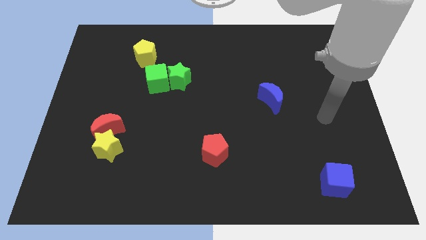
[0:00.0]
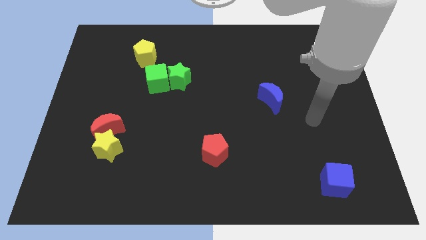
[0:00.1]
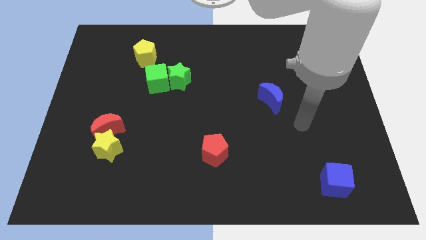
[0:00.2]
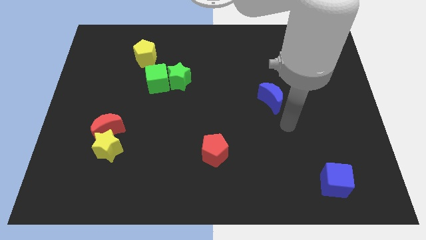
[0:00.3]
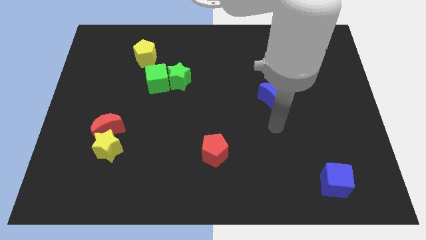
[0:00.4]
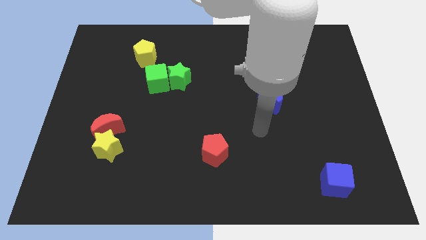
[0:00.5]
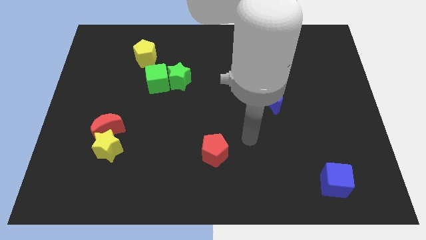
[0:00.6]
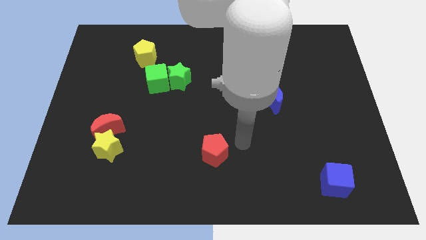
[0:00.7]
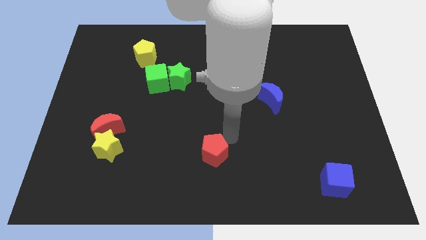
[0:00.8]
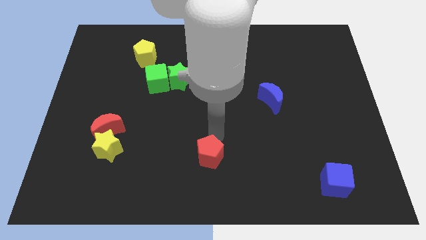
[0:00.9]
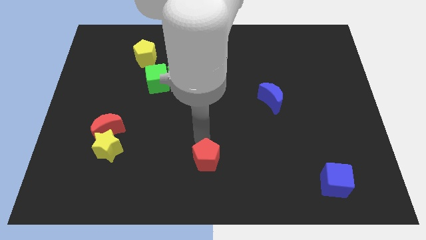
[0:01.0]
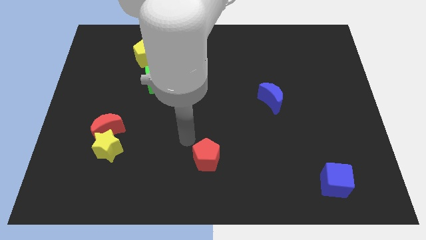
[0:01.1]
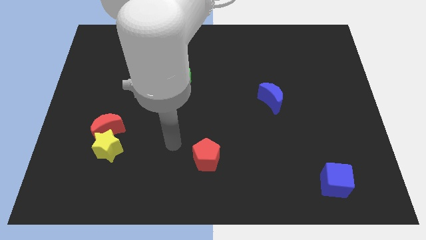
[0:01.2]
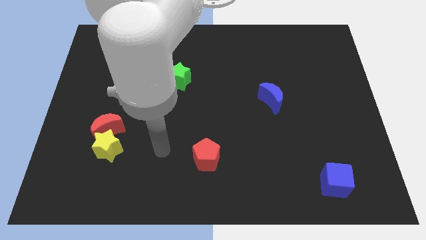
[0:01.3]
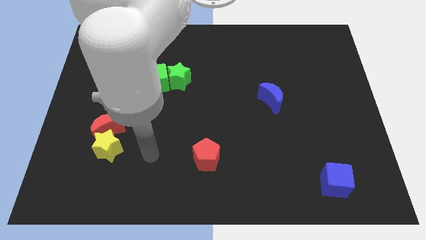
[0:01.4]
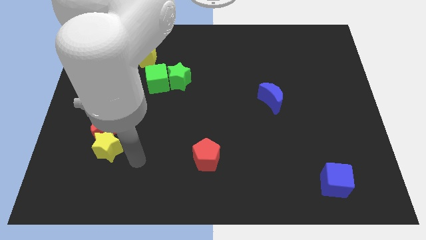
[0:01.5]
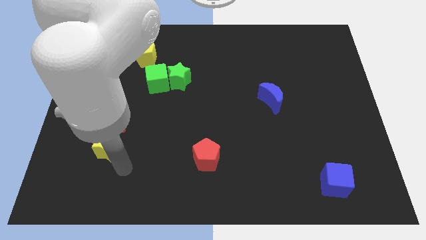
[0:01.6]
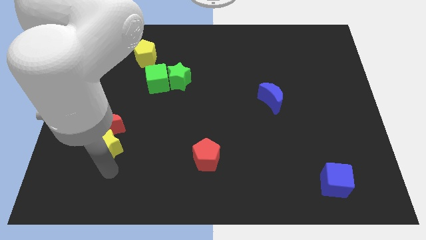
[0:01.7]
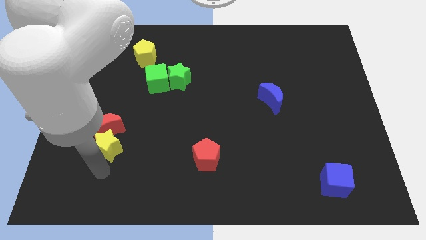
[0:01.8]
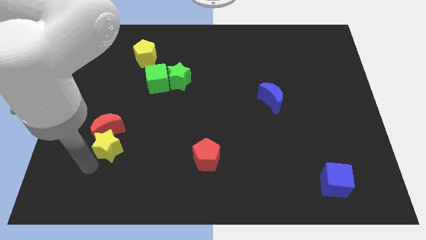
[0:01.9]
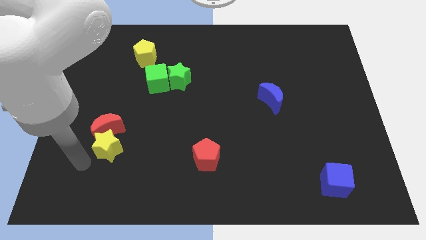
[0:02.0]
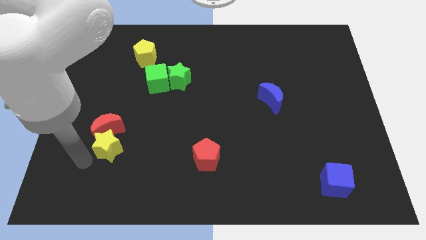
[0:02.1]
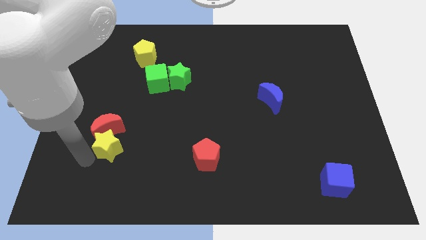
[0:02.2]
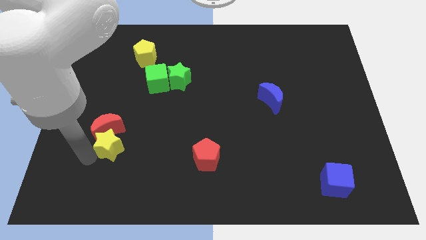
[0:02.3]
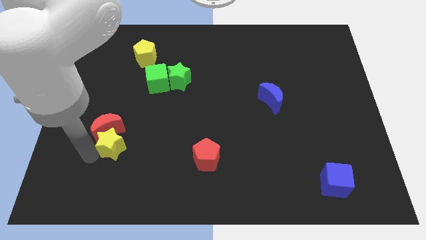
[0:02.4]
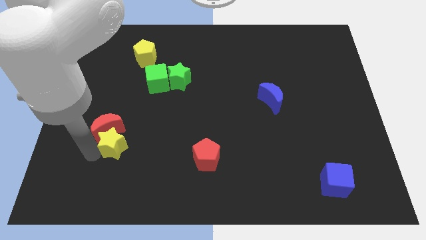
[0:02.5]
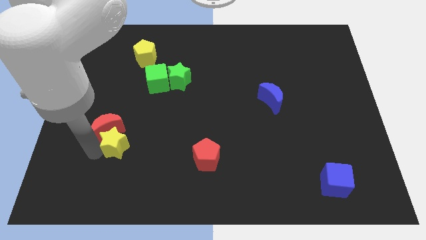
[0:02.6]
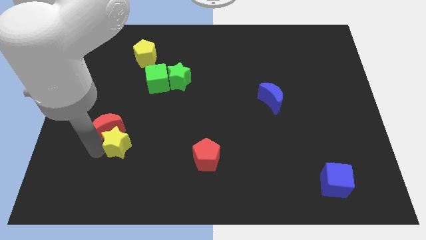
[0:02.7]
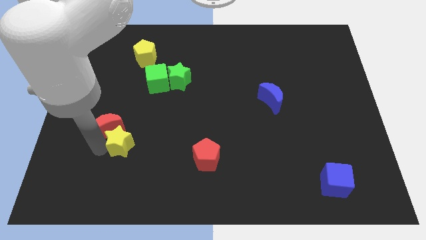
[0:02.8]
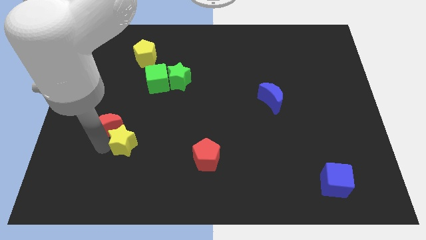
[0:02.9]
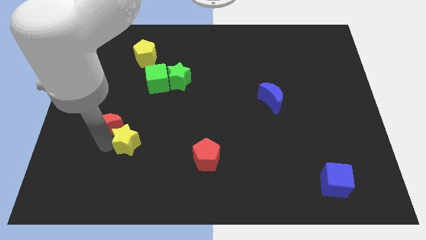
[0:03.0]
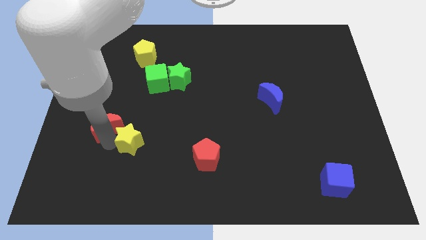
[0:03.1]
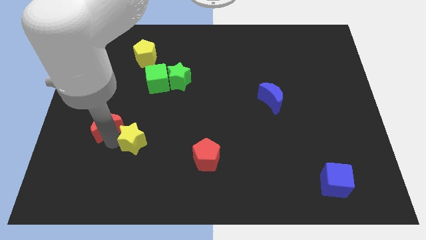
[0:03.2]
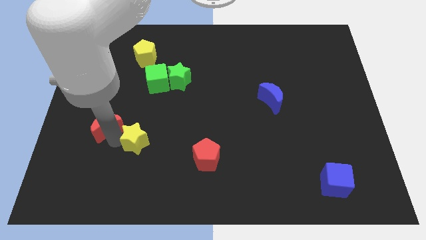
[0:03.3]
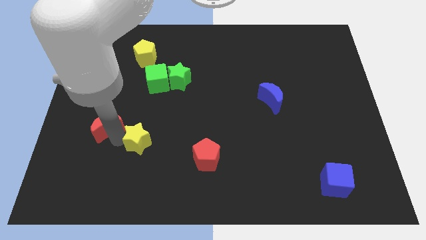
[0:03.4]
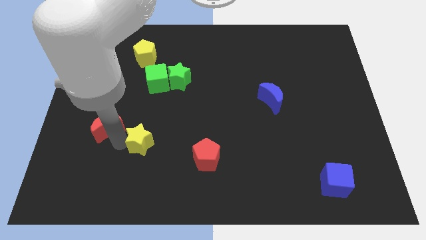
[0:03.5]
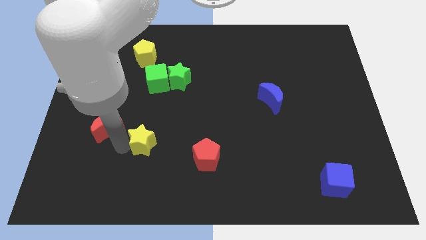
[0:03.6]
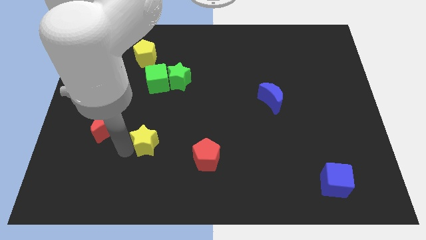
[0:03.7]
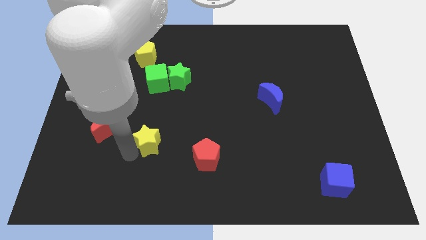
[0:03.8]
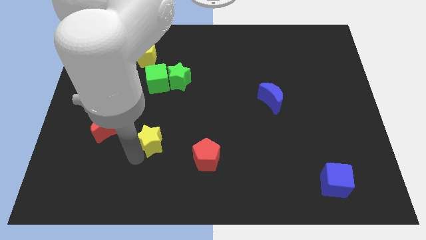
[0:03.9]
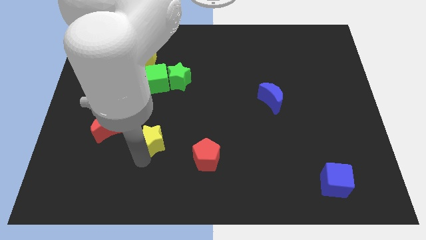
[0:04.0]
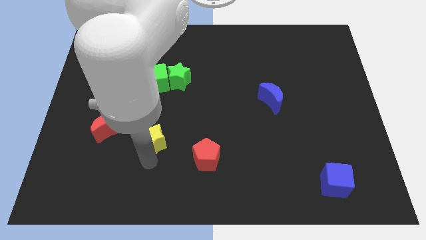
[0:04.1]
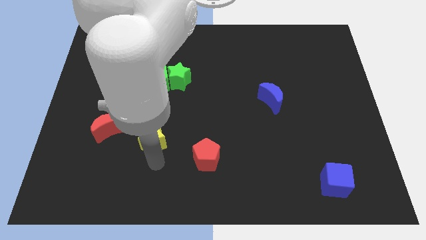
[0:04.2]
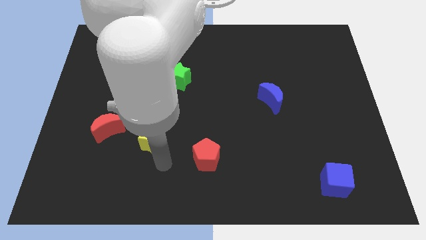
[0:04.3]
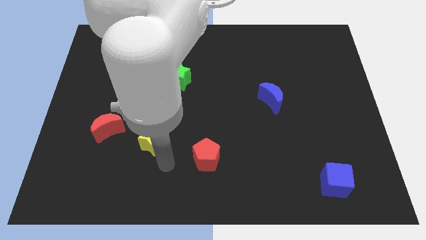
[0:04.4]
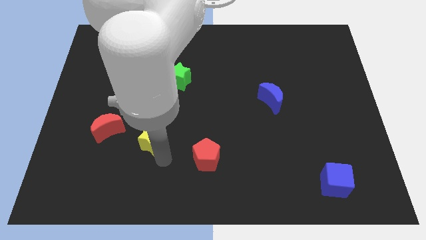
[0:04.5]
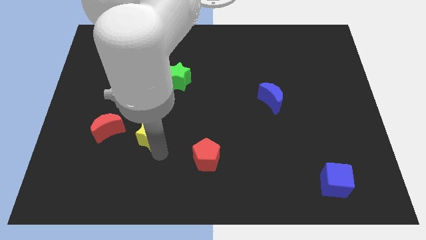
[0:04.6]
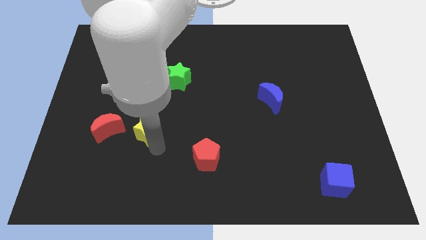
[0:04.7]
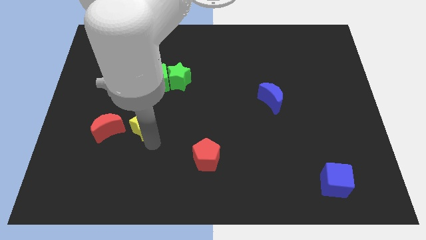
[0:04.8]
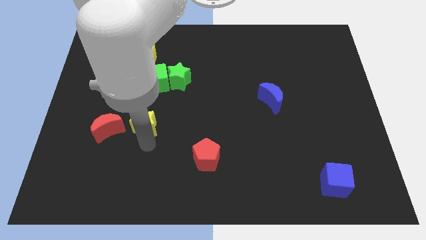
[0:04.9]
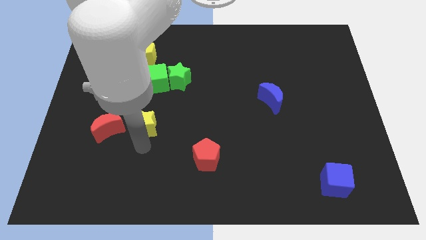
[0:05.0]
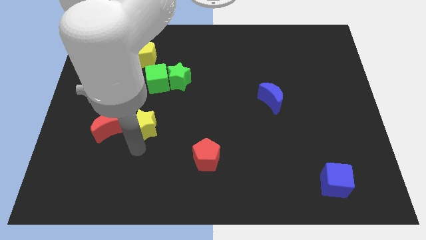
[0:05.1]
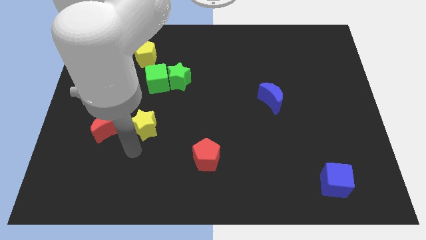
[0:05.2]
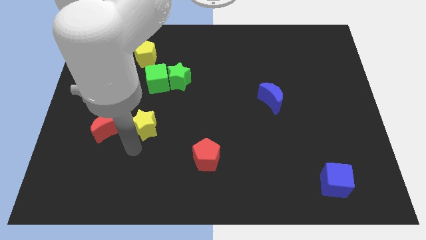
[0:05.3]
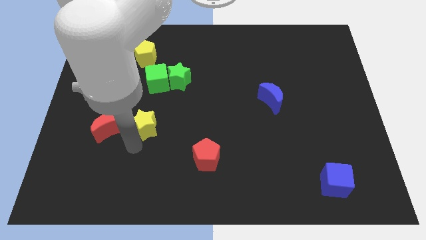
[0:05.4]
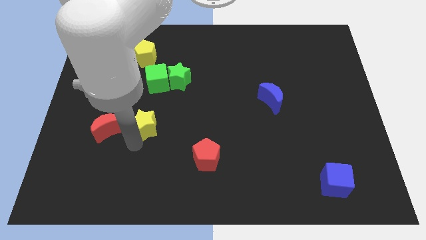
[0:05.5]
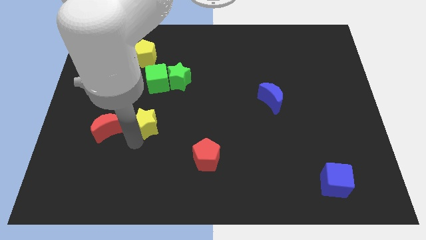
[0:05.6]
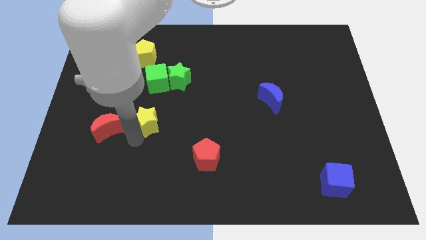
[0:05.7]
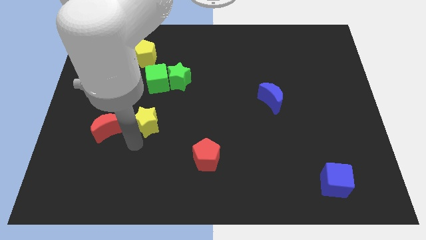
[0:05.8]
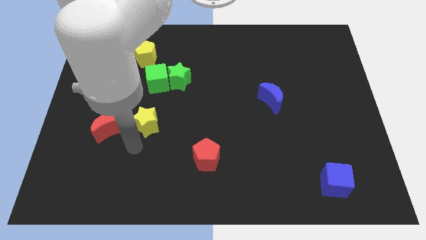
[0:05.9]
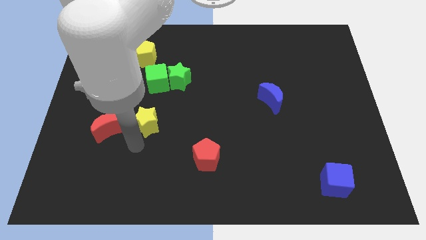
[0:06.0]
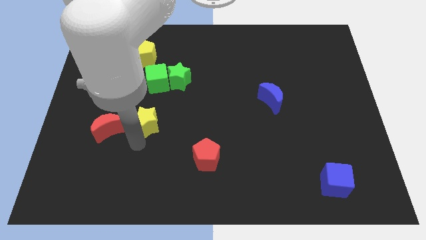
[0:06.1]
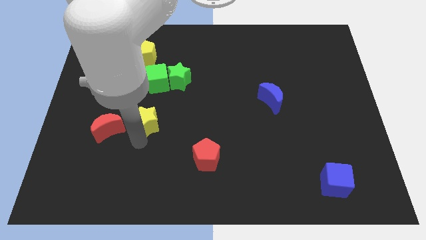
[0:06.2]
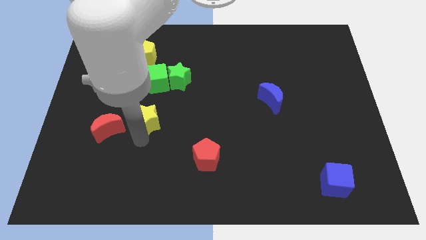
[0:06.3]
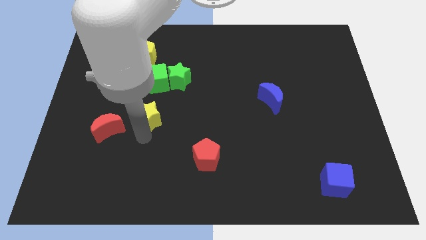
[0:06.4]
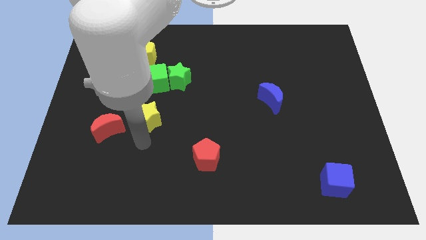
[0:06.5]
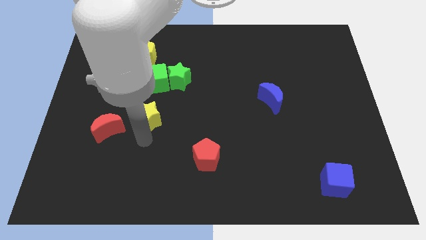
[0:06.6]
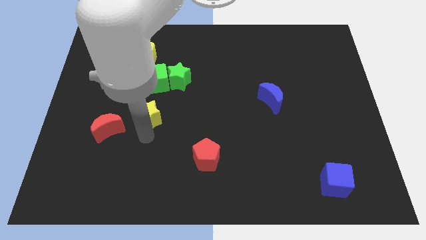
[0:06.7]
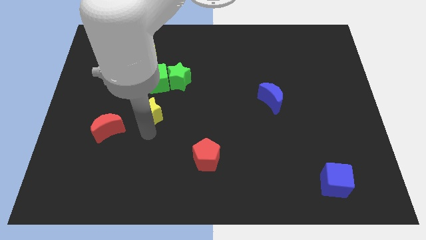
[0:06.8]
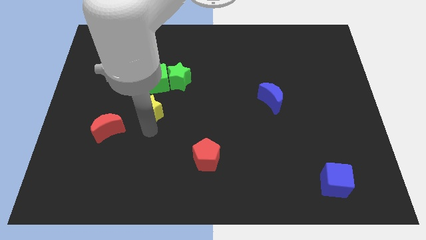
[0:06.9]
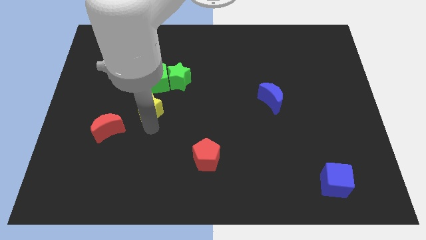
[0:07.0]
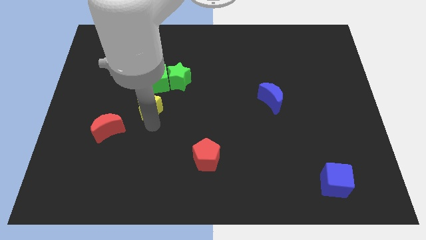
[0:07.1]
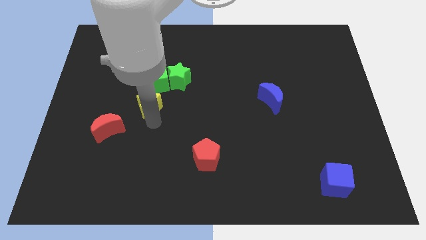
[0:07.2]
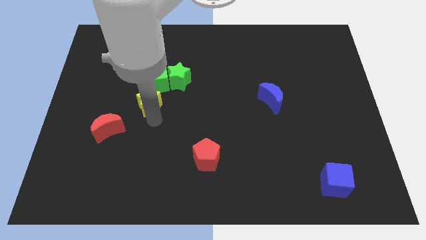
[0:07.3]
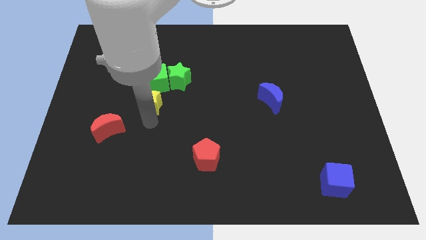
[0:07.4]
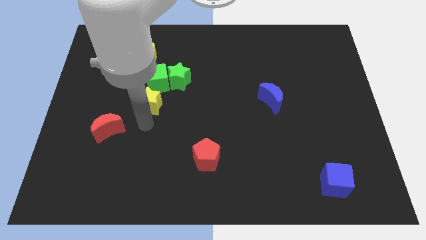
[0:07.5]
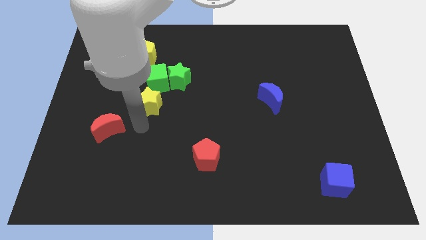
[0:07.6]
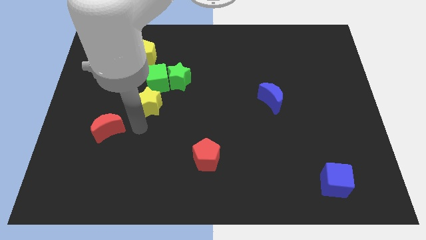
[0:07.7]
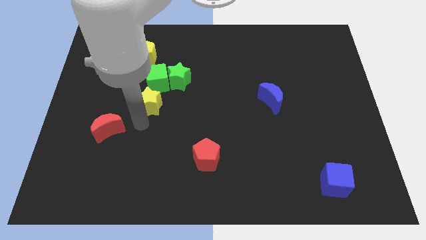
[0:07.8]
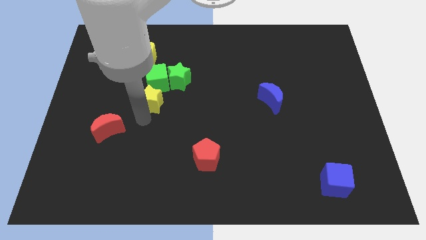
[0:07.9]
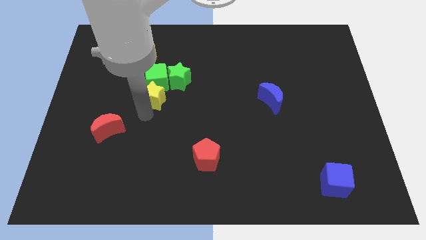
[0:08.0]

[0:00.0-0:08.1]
move the yellow star close to the green cube

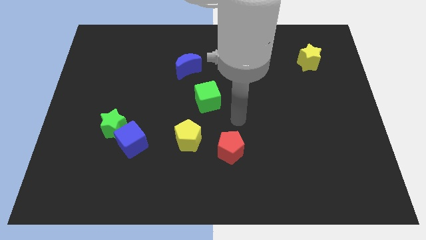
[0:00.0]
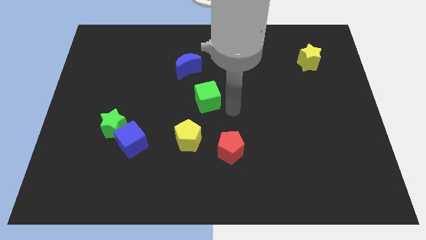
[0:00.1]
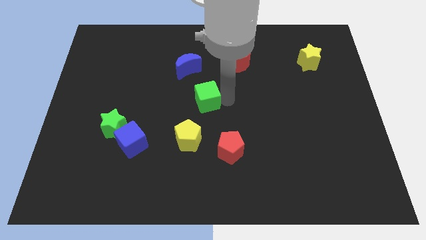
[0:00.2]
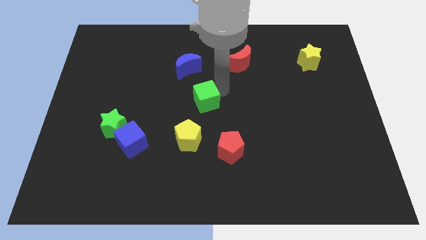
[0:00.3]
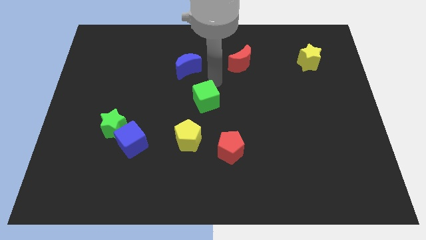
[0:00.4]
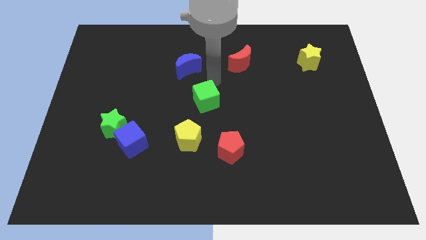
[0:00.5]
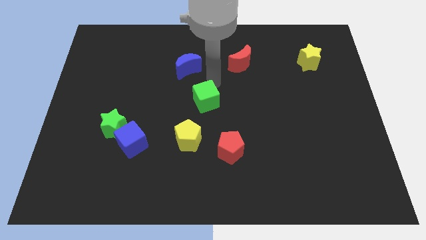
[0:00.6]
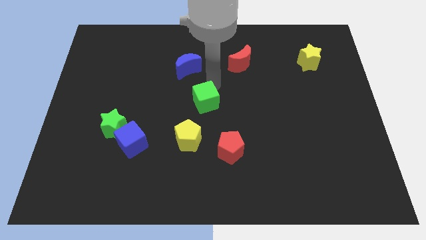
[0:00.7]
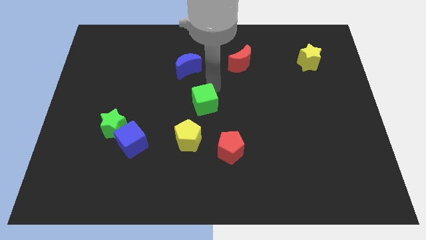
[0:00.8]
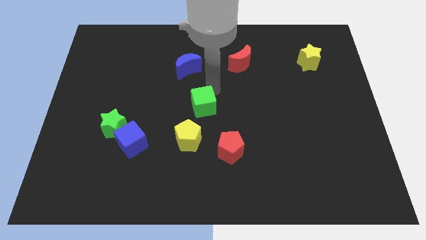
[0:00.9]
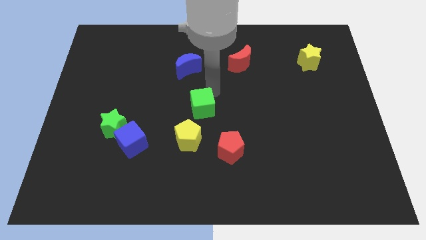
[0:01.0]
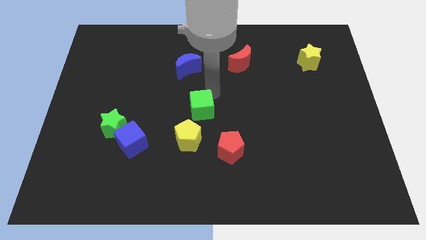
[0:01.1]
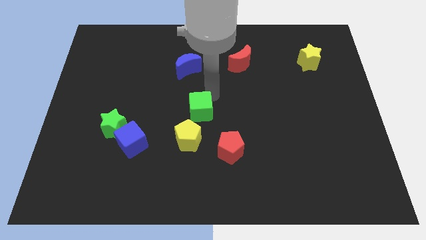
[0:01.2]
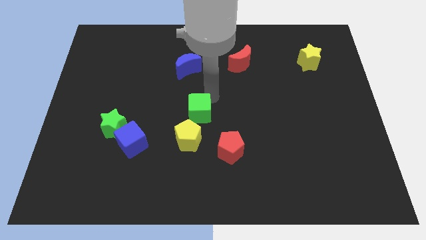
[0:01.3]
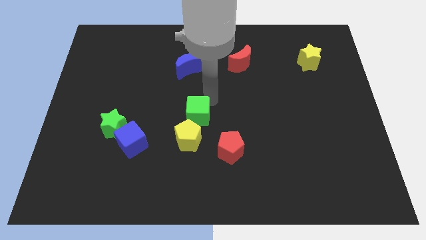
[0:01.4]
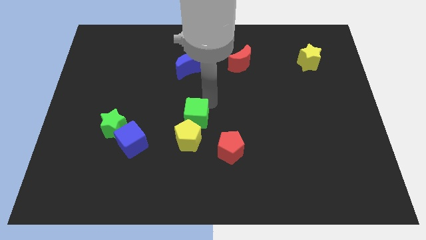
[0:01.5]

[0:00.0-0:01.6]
slide the green cube to the yellow pentagon
